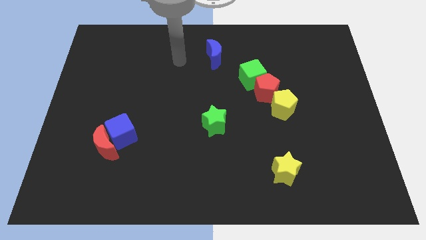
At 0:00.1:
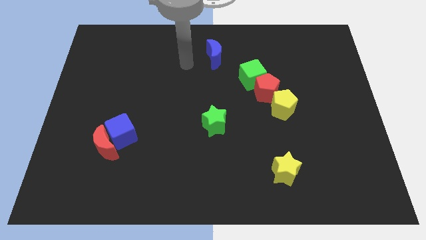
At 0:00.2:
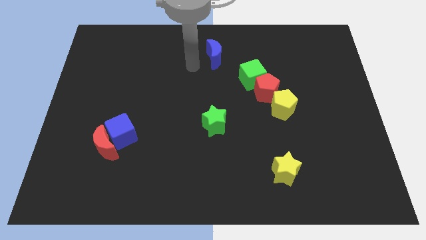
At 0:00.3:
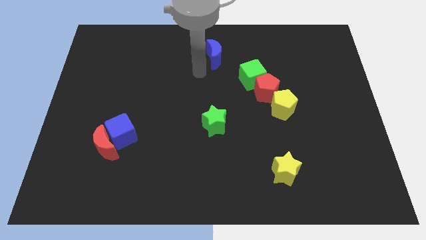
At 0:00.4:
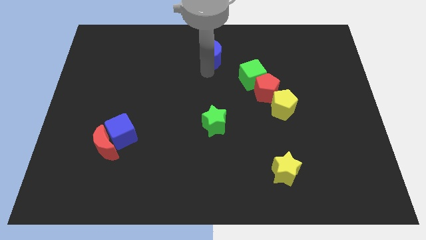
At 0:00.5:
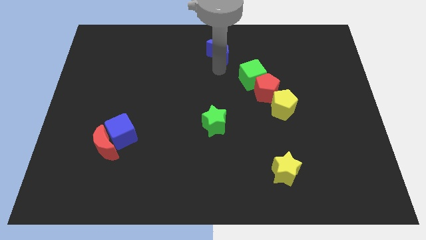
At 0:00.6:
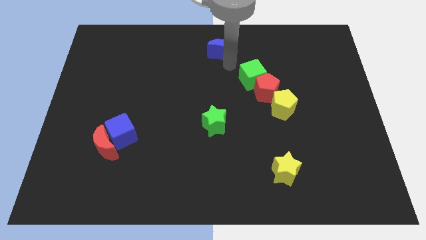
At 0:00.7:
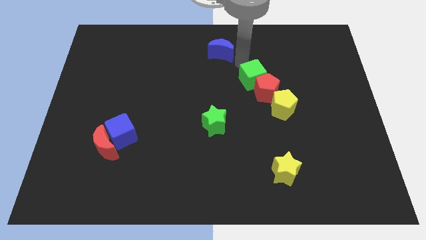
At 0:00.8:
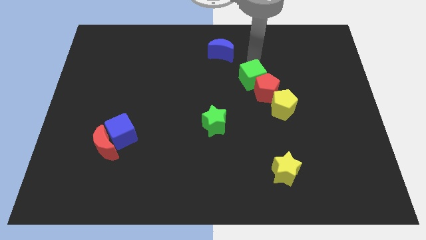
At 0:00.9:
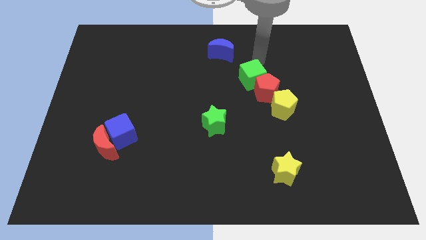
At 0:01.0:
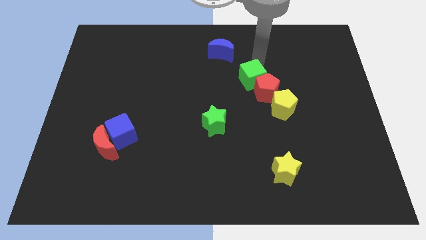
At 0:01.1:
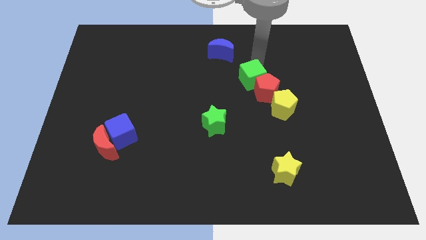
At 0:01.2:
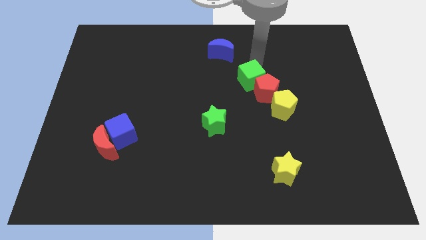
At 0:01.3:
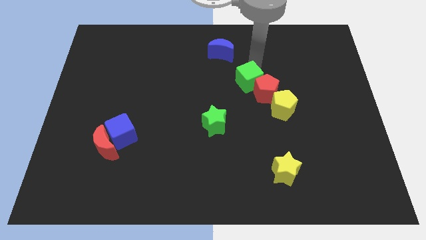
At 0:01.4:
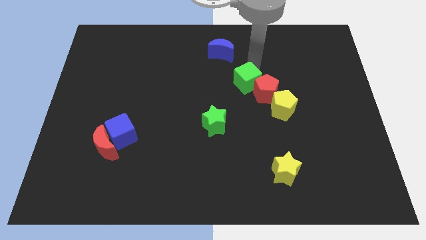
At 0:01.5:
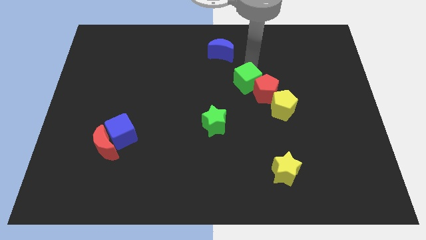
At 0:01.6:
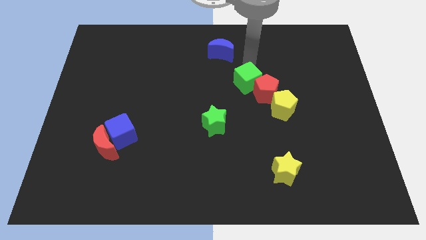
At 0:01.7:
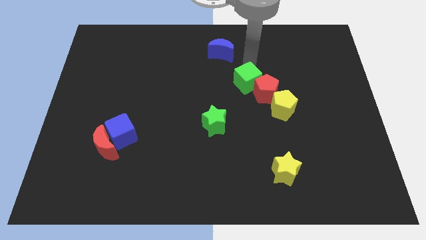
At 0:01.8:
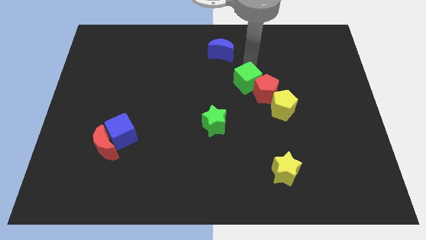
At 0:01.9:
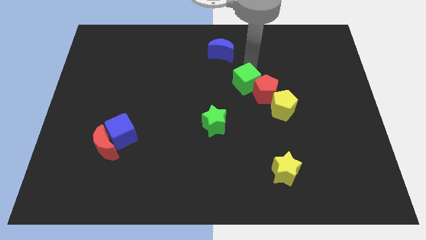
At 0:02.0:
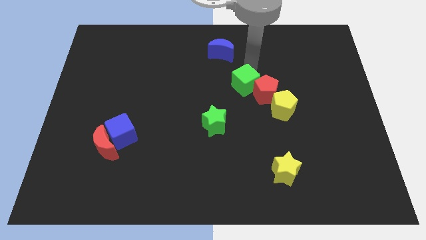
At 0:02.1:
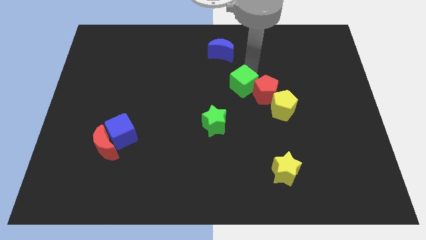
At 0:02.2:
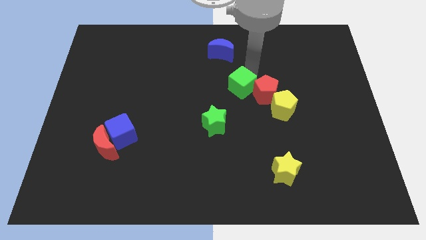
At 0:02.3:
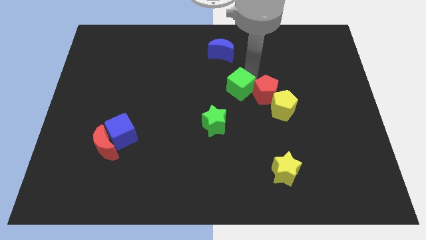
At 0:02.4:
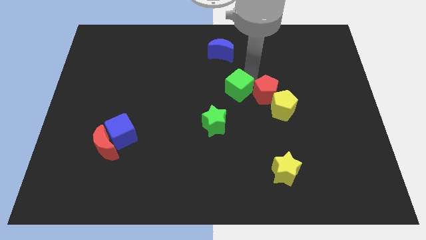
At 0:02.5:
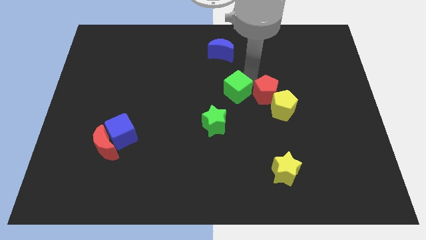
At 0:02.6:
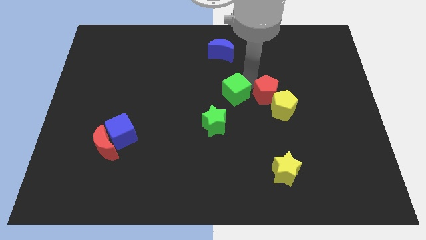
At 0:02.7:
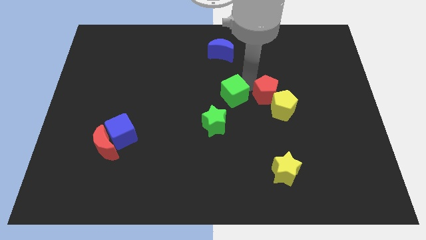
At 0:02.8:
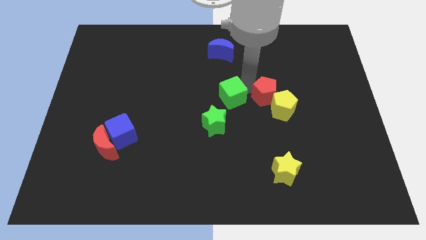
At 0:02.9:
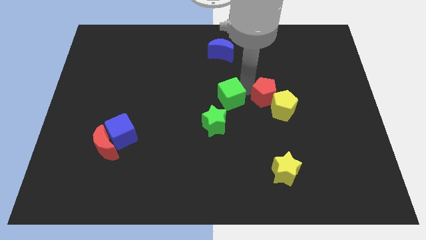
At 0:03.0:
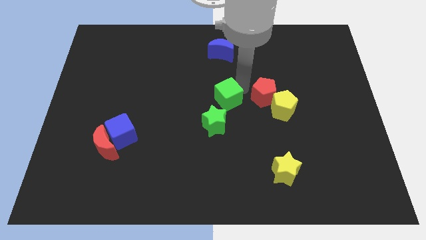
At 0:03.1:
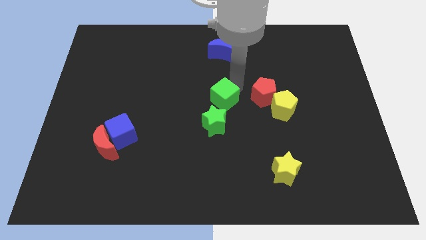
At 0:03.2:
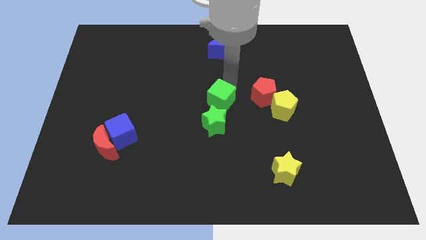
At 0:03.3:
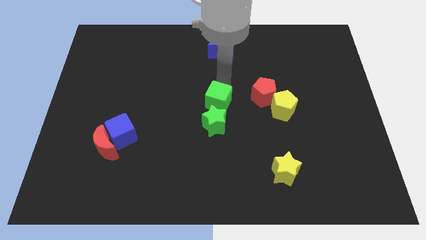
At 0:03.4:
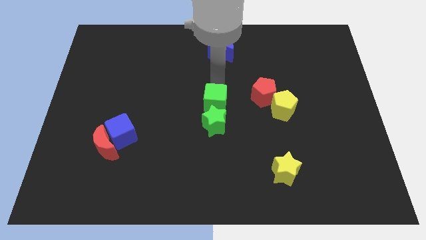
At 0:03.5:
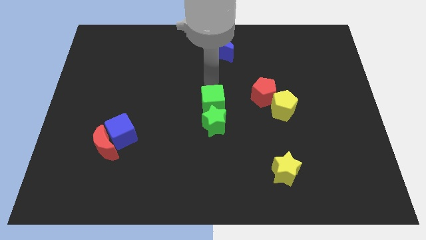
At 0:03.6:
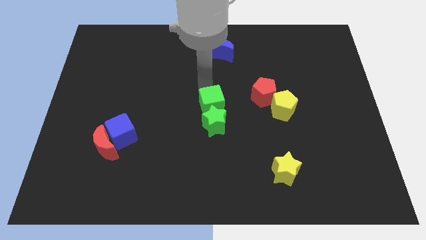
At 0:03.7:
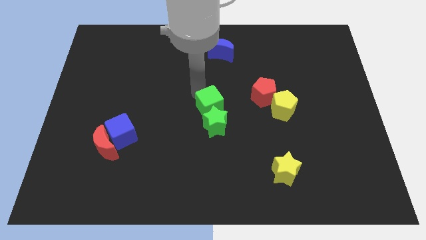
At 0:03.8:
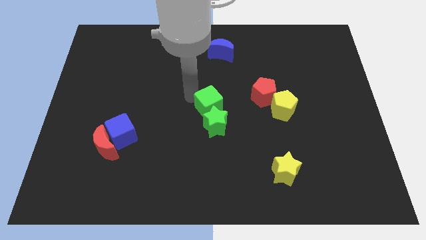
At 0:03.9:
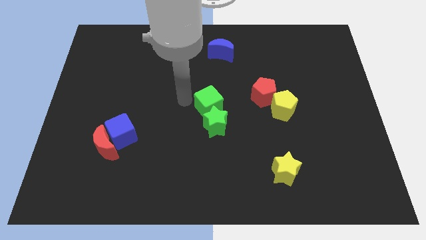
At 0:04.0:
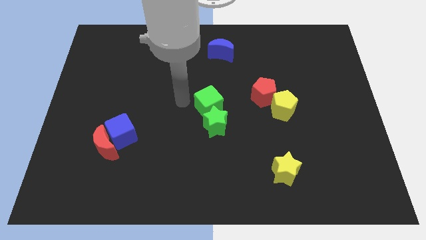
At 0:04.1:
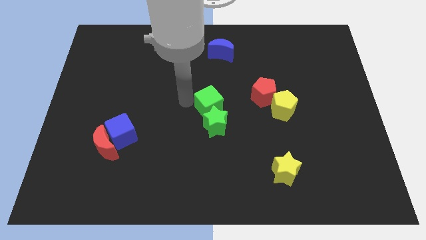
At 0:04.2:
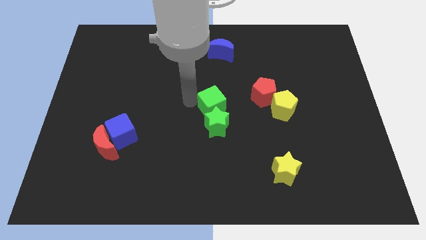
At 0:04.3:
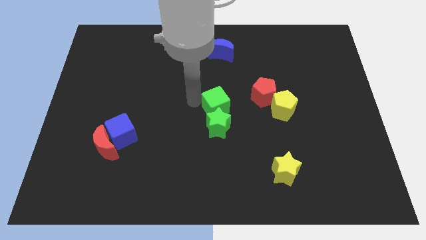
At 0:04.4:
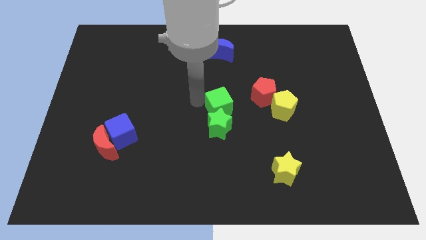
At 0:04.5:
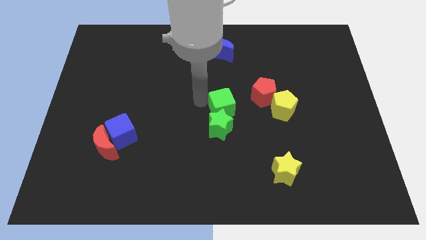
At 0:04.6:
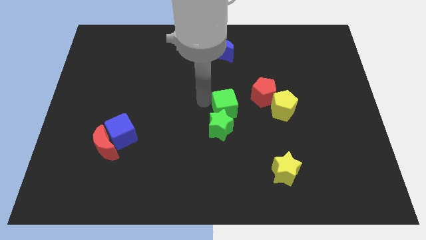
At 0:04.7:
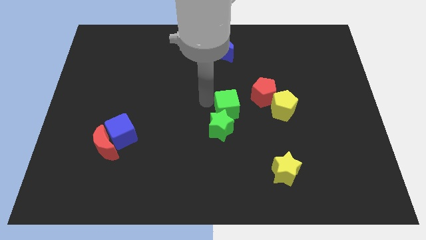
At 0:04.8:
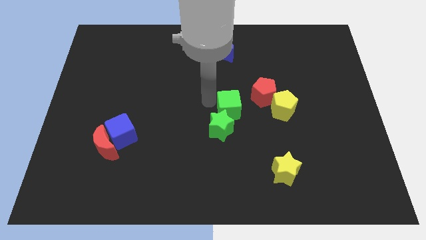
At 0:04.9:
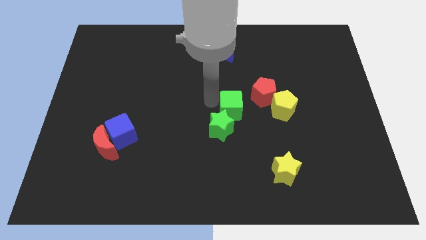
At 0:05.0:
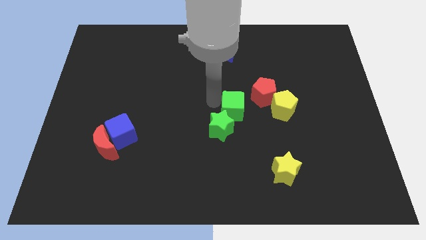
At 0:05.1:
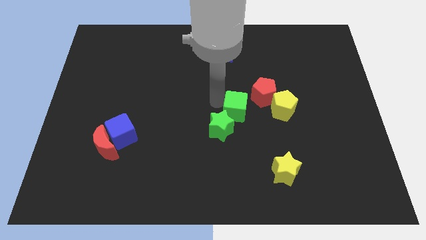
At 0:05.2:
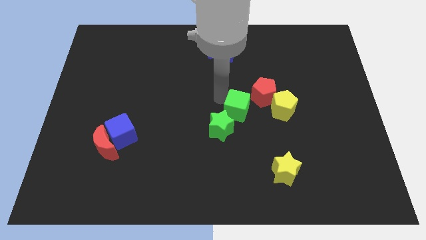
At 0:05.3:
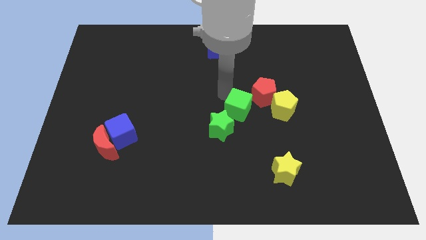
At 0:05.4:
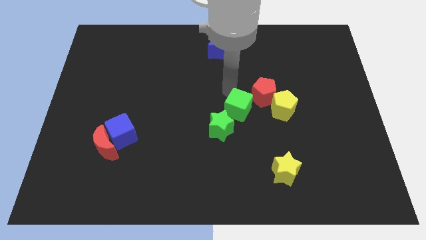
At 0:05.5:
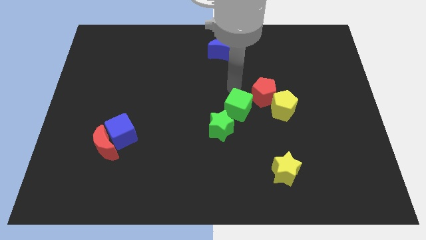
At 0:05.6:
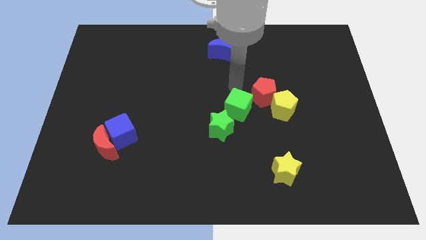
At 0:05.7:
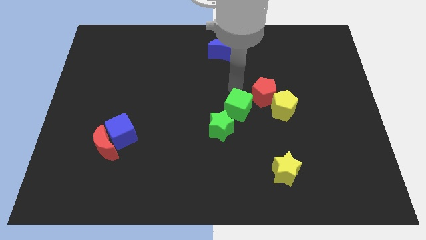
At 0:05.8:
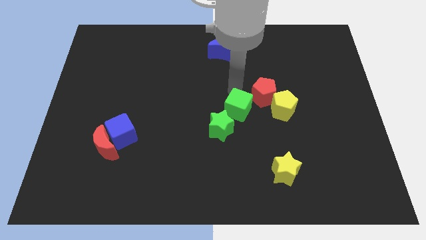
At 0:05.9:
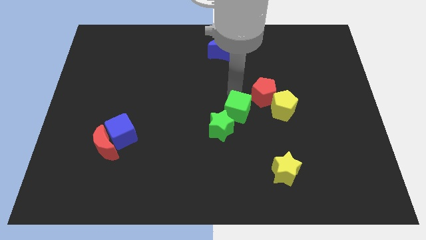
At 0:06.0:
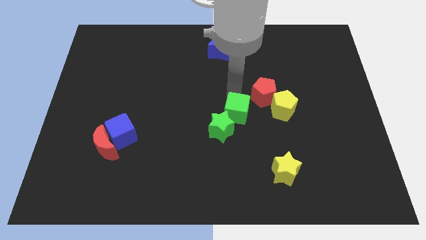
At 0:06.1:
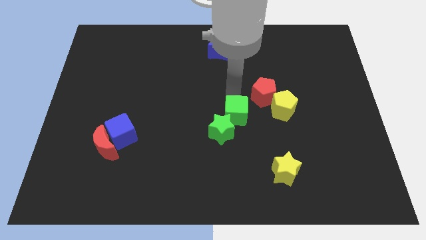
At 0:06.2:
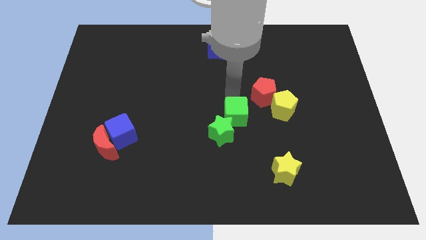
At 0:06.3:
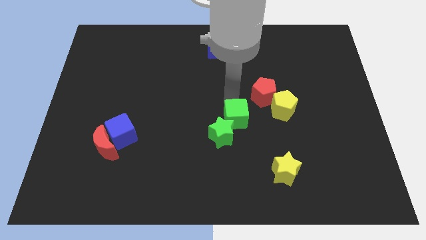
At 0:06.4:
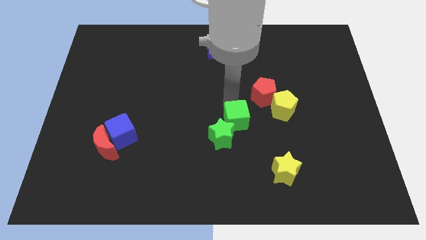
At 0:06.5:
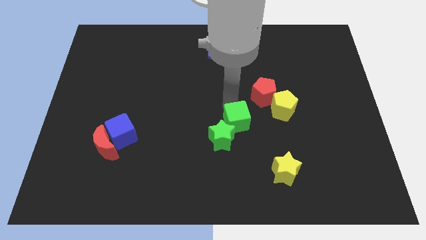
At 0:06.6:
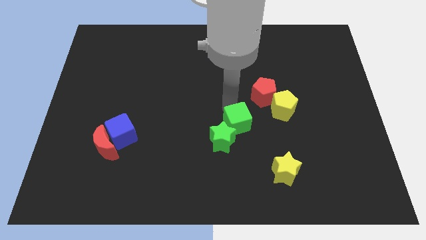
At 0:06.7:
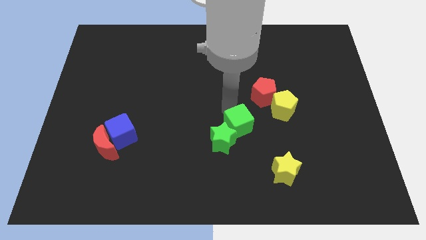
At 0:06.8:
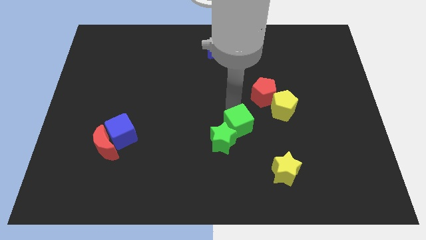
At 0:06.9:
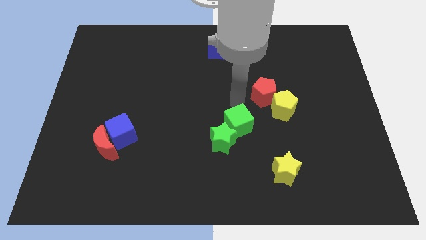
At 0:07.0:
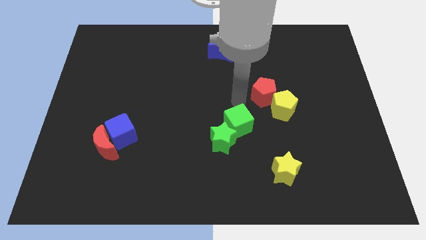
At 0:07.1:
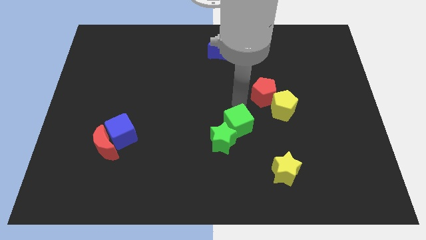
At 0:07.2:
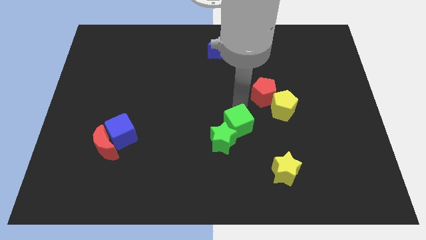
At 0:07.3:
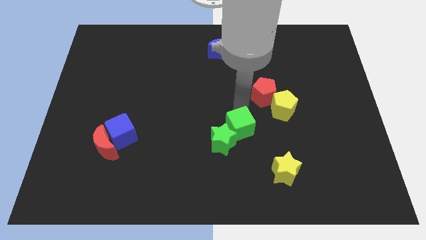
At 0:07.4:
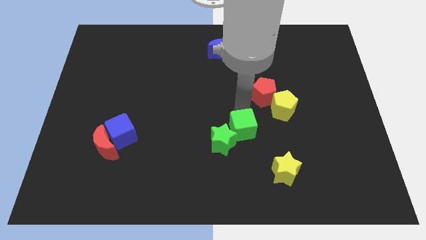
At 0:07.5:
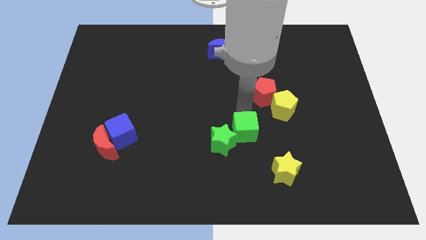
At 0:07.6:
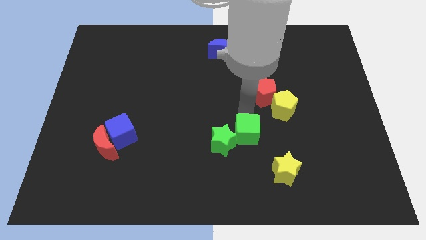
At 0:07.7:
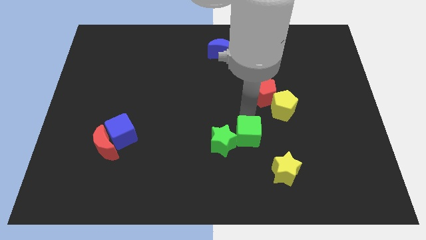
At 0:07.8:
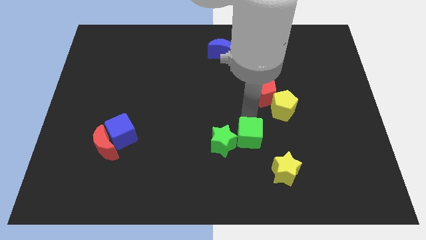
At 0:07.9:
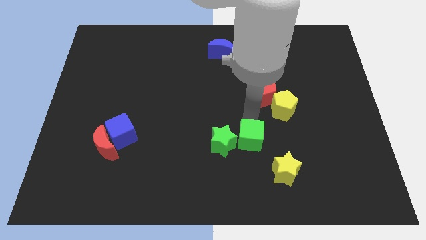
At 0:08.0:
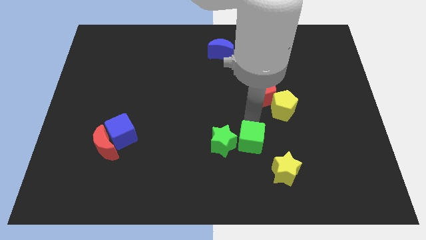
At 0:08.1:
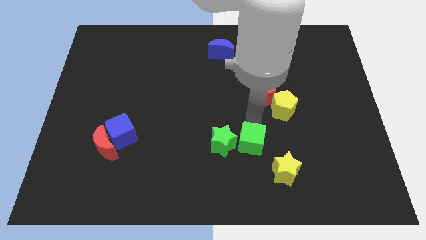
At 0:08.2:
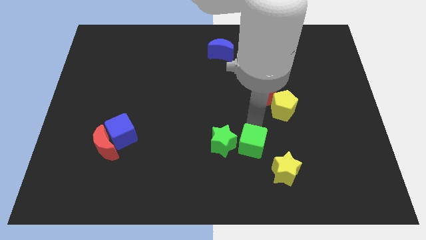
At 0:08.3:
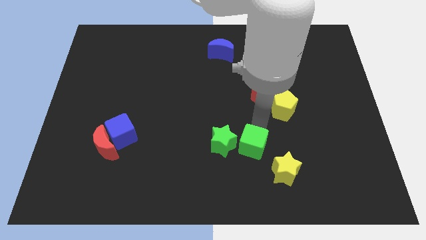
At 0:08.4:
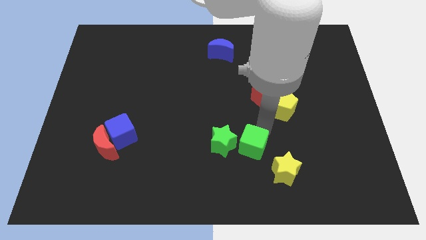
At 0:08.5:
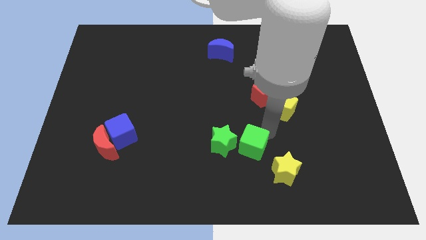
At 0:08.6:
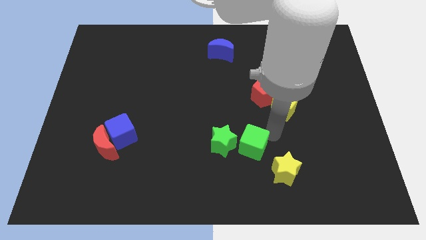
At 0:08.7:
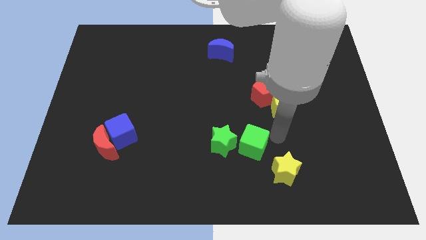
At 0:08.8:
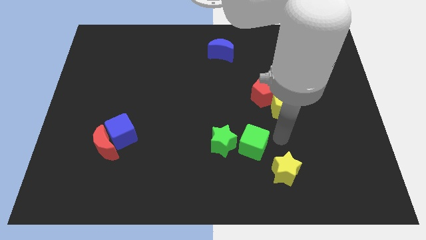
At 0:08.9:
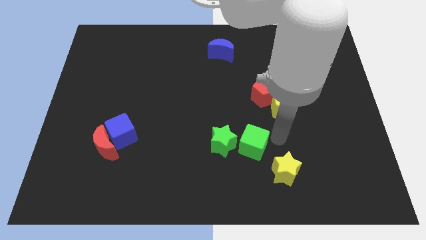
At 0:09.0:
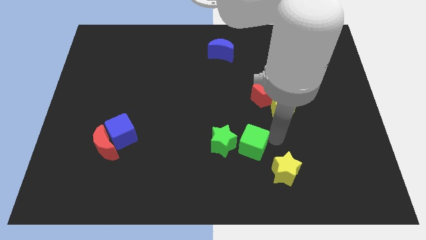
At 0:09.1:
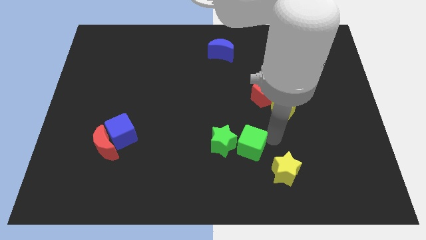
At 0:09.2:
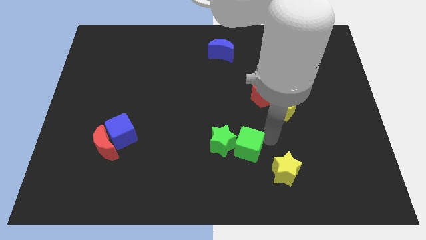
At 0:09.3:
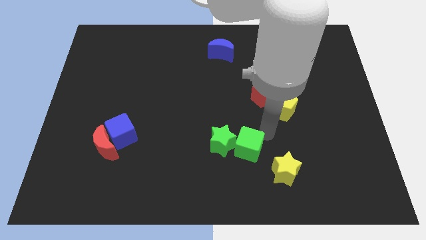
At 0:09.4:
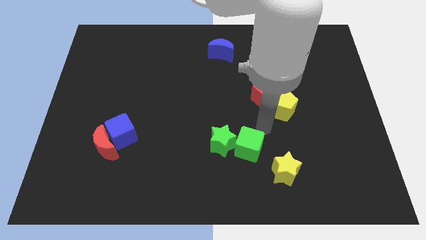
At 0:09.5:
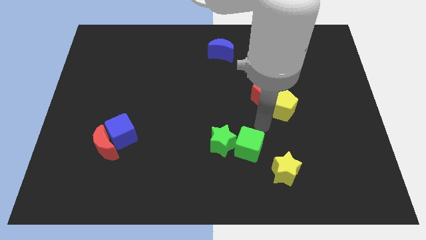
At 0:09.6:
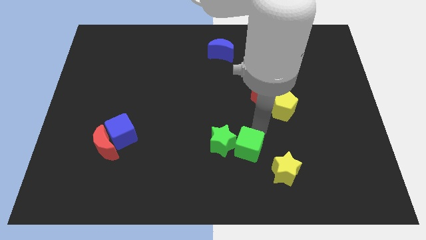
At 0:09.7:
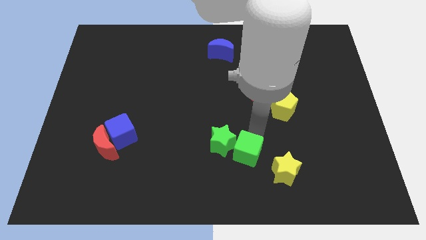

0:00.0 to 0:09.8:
push the green cube to the left of the yellow star
